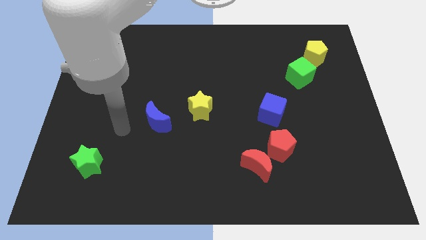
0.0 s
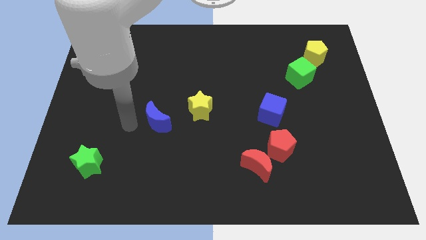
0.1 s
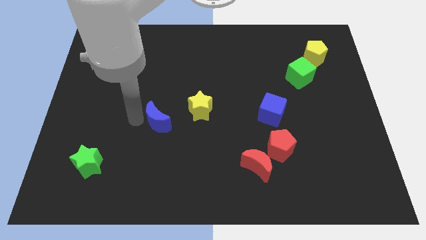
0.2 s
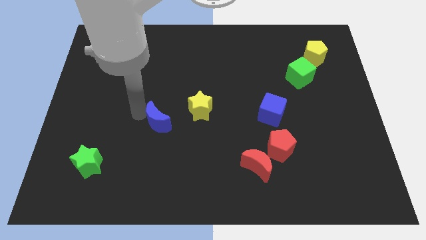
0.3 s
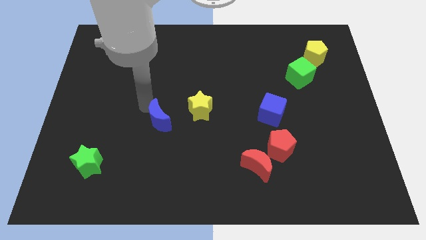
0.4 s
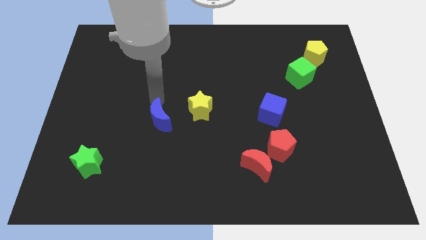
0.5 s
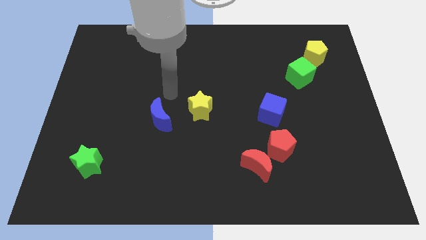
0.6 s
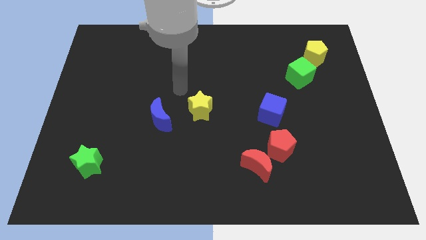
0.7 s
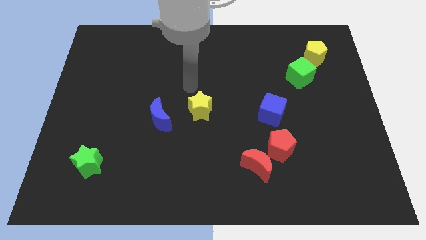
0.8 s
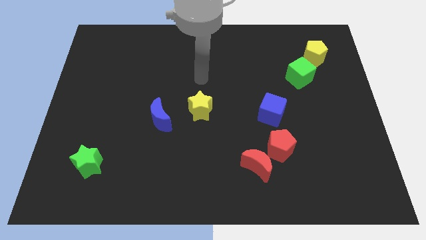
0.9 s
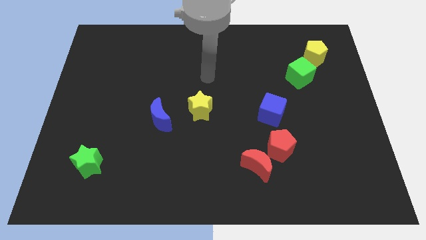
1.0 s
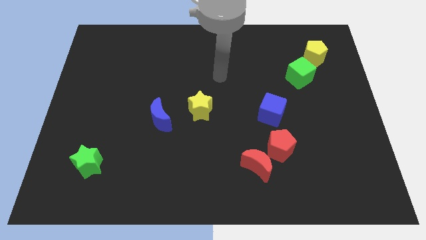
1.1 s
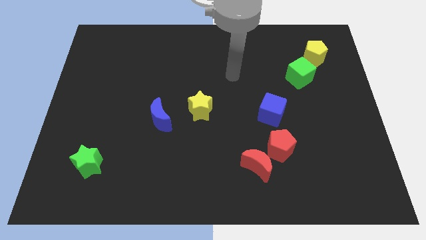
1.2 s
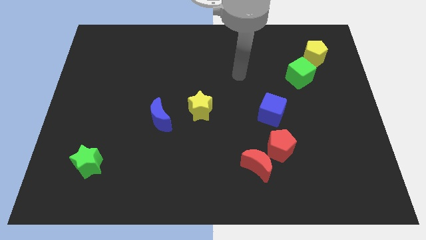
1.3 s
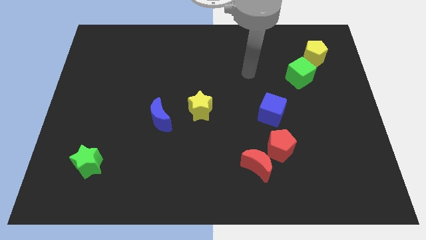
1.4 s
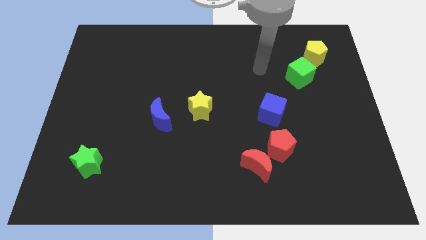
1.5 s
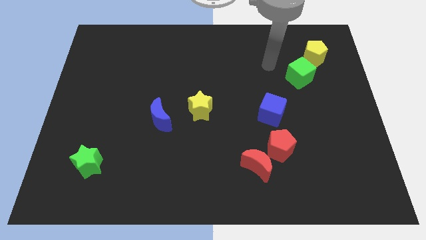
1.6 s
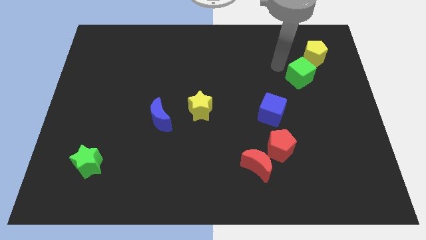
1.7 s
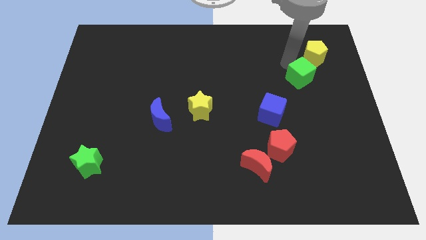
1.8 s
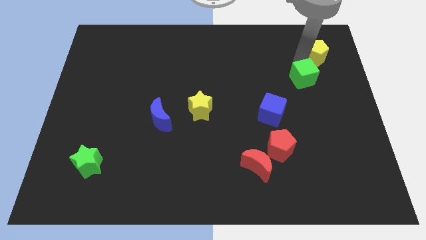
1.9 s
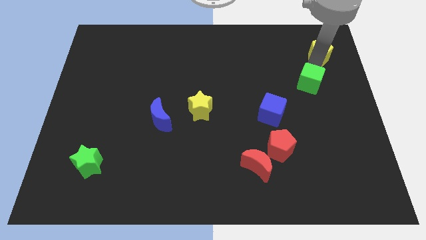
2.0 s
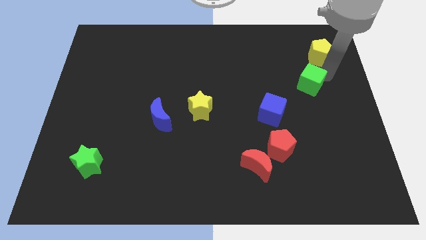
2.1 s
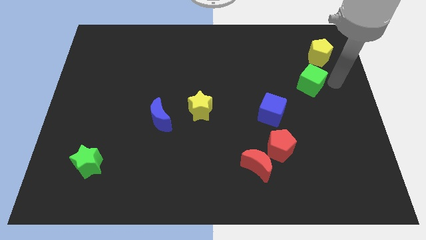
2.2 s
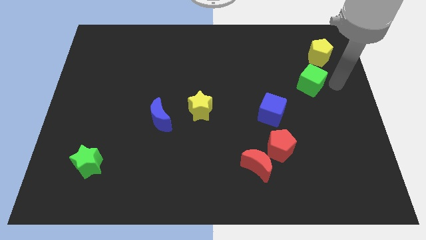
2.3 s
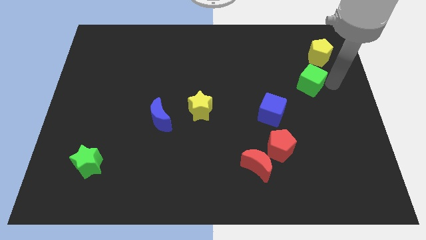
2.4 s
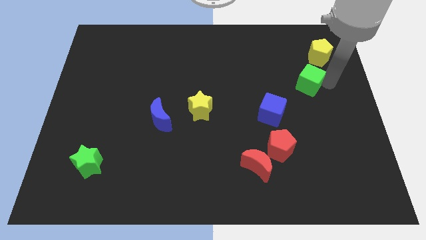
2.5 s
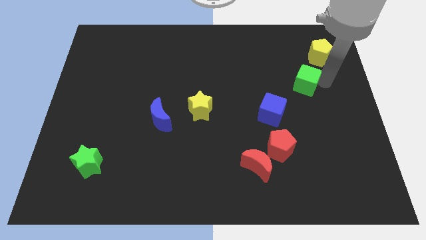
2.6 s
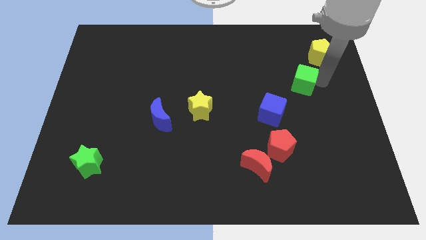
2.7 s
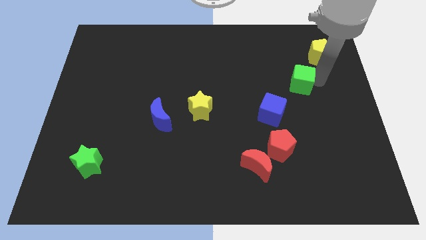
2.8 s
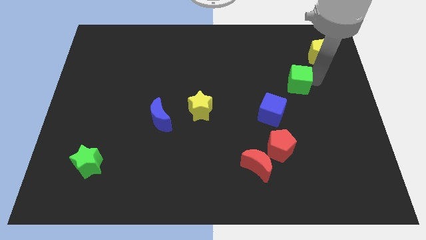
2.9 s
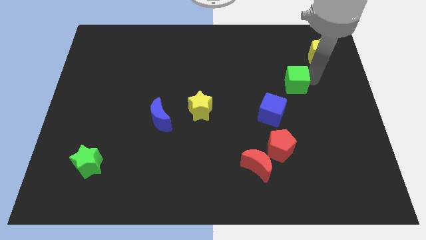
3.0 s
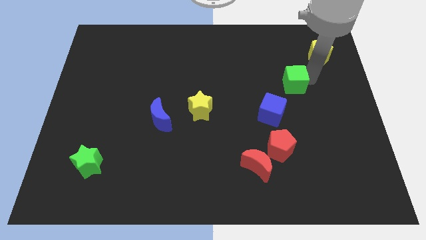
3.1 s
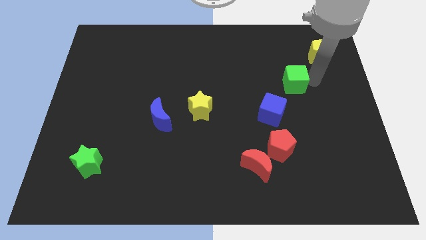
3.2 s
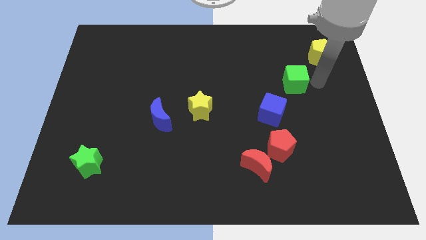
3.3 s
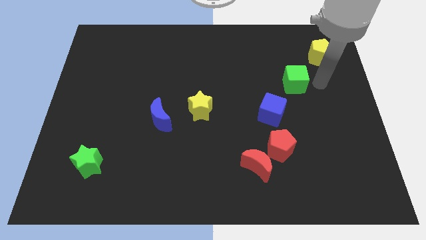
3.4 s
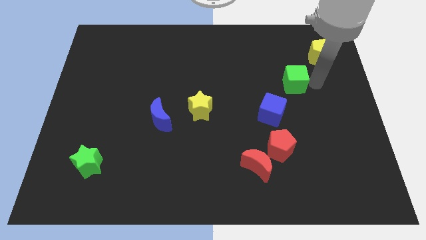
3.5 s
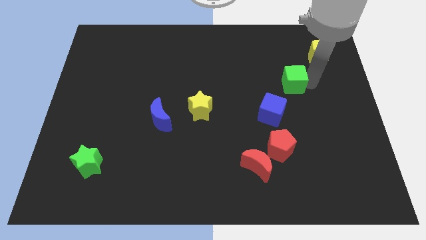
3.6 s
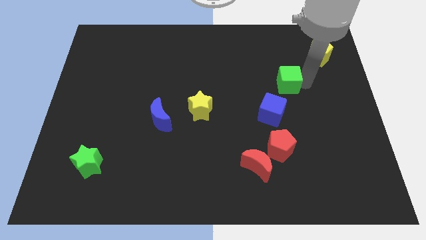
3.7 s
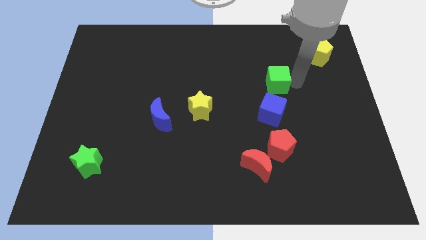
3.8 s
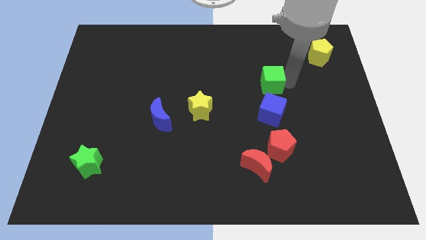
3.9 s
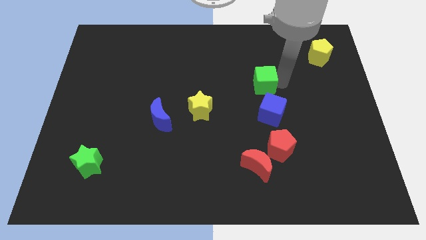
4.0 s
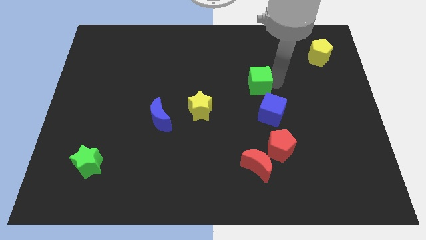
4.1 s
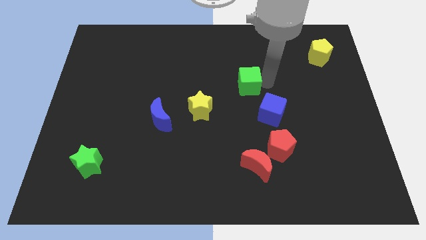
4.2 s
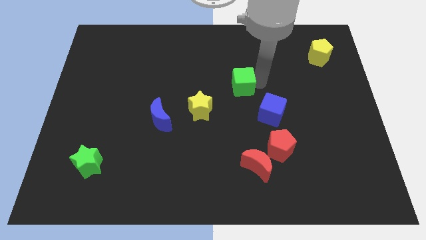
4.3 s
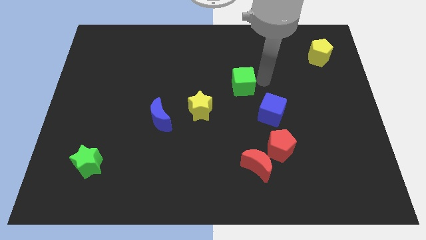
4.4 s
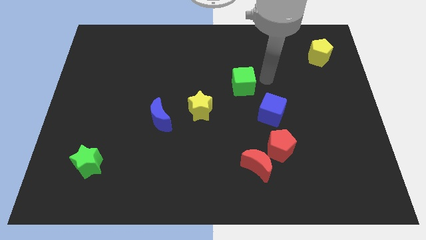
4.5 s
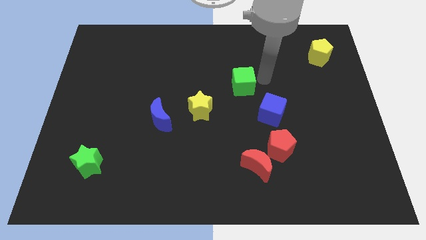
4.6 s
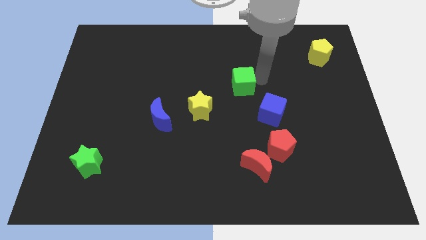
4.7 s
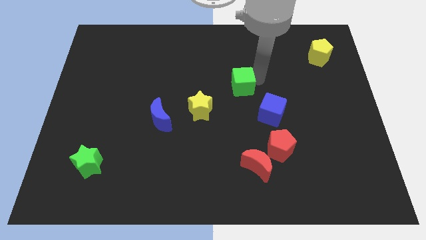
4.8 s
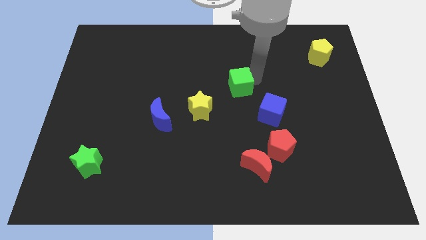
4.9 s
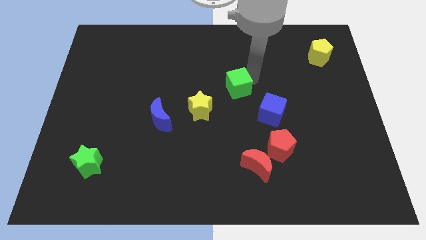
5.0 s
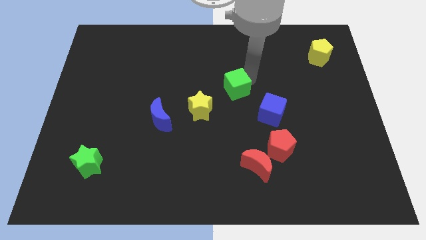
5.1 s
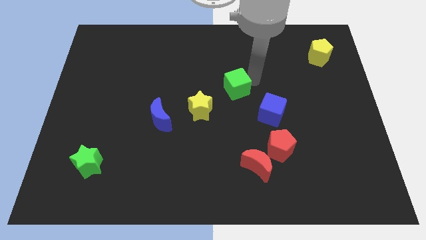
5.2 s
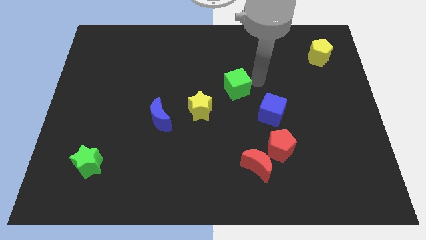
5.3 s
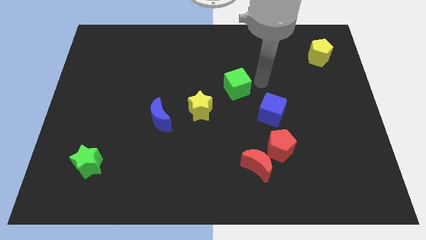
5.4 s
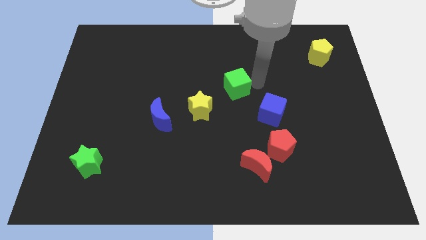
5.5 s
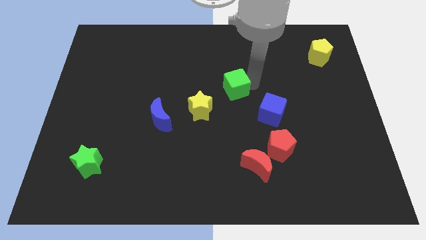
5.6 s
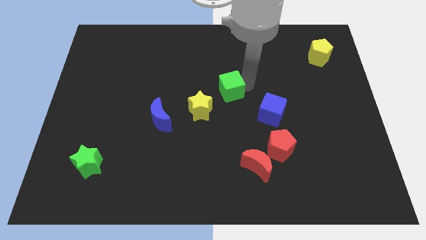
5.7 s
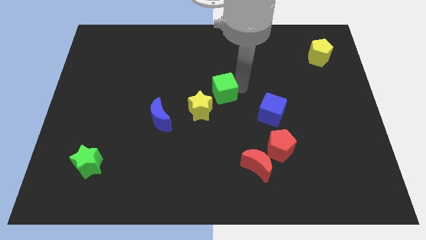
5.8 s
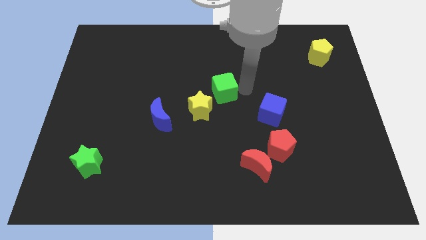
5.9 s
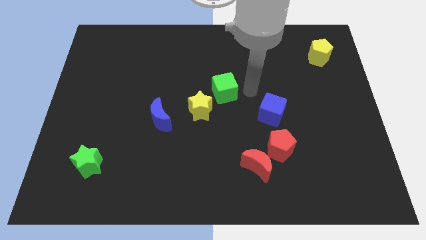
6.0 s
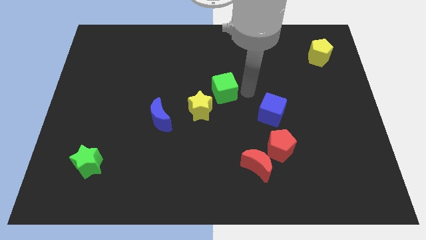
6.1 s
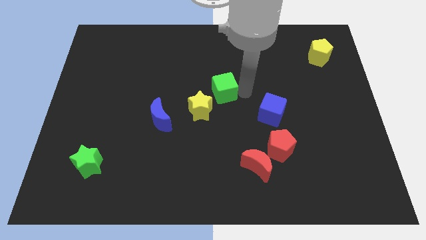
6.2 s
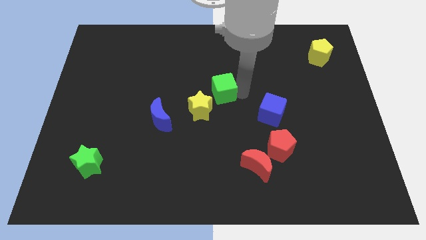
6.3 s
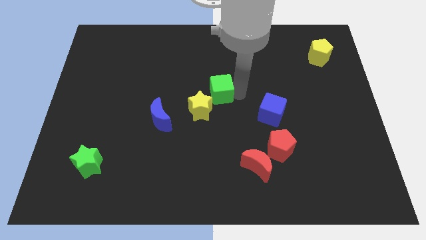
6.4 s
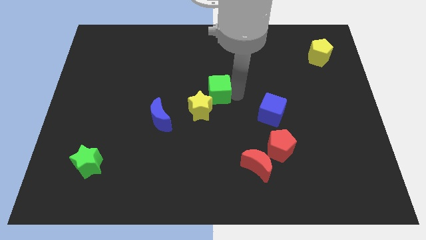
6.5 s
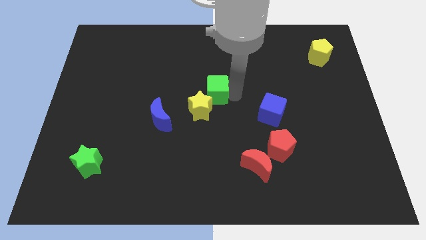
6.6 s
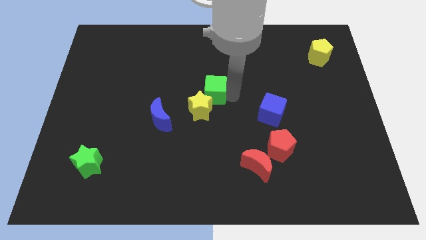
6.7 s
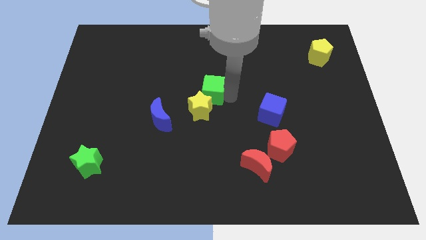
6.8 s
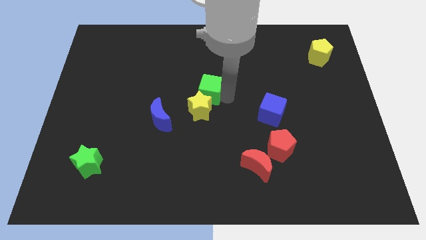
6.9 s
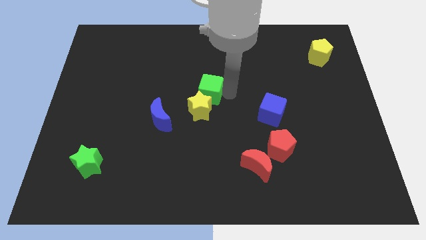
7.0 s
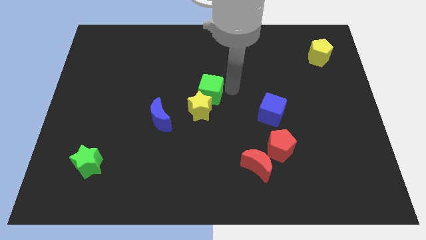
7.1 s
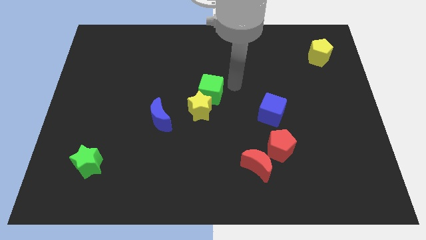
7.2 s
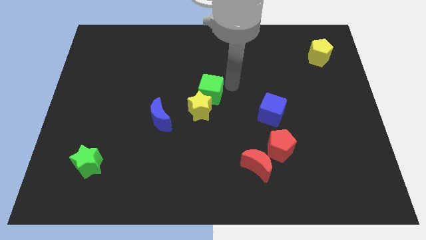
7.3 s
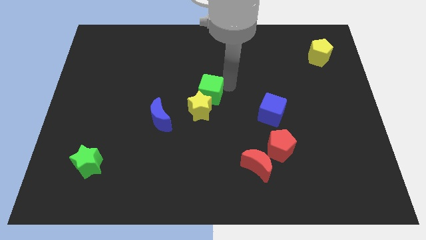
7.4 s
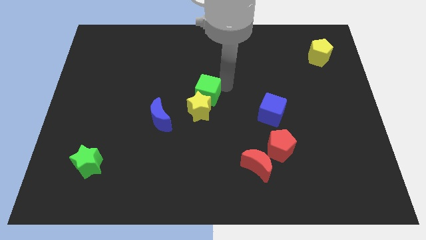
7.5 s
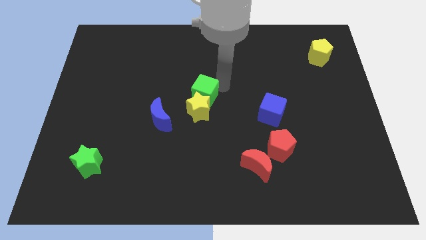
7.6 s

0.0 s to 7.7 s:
slide the green cube diagonally up and to the right of the blue moon
